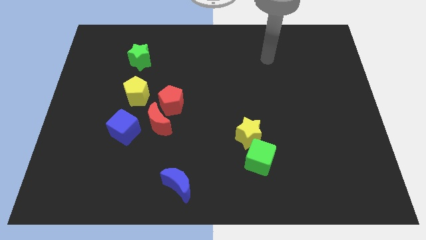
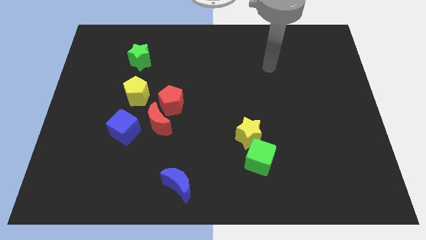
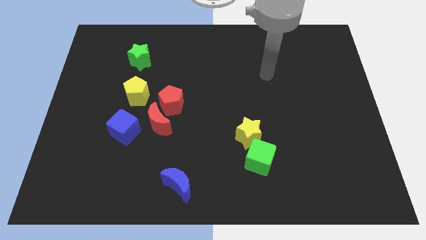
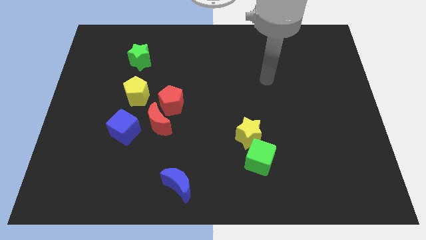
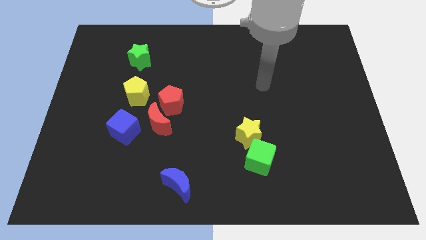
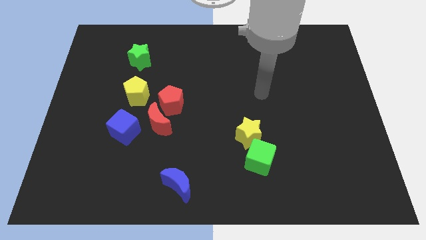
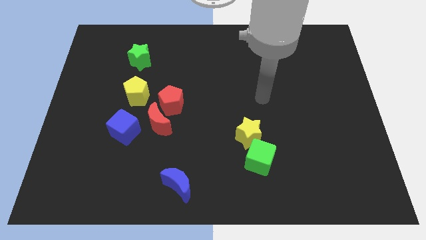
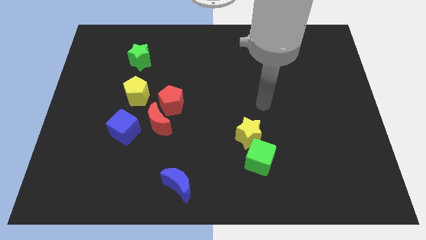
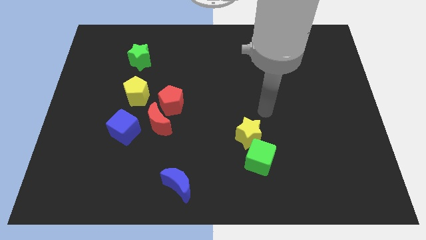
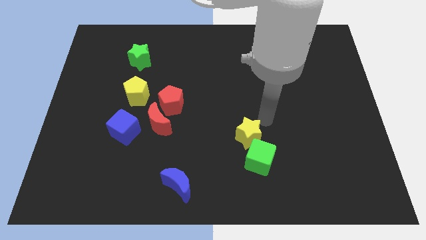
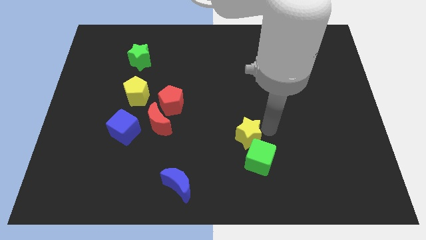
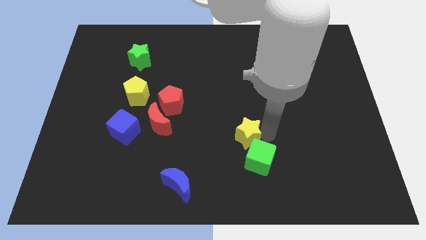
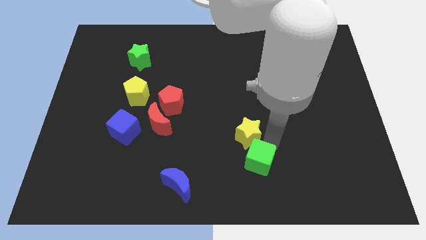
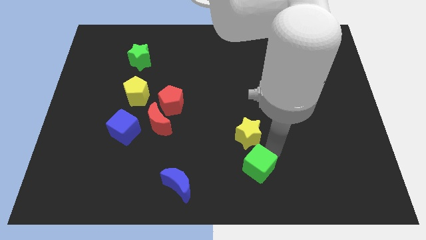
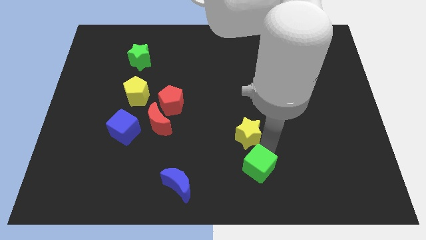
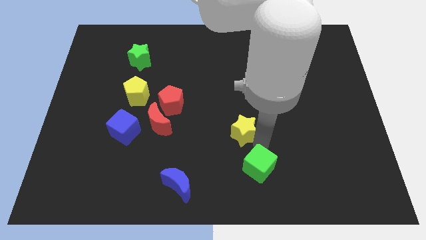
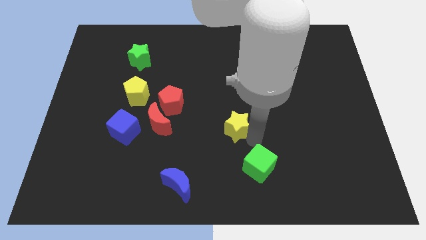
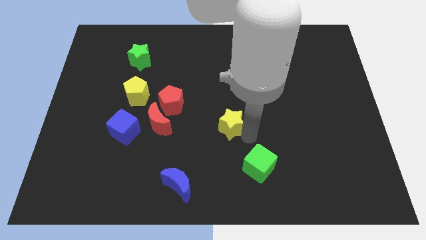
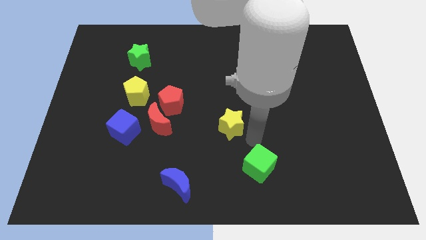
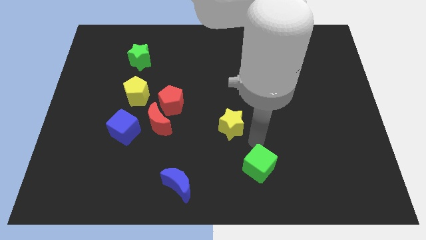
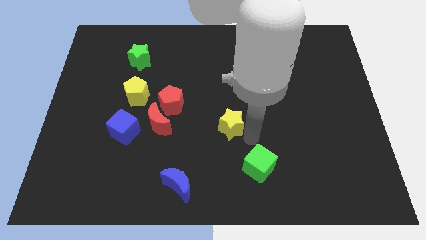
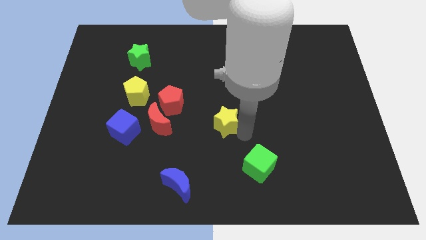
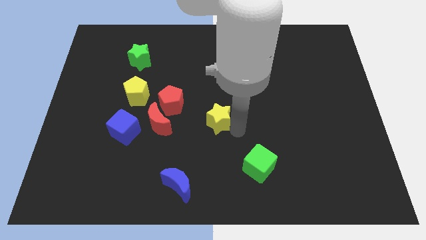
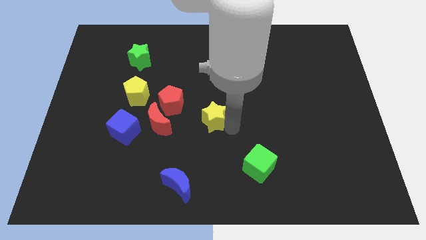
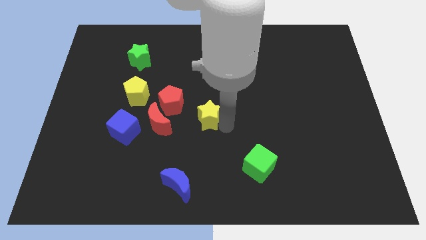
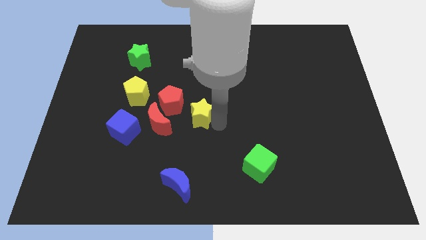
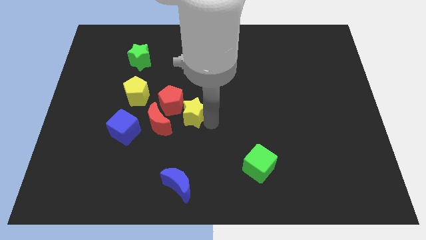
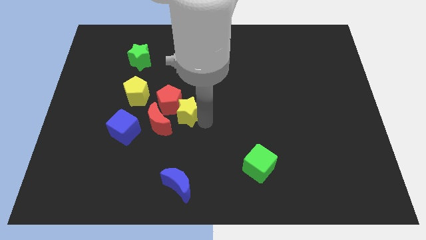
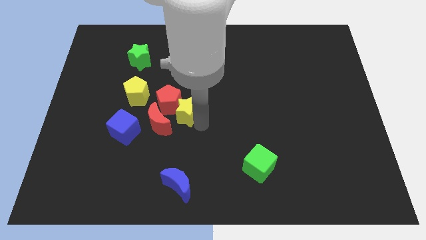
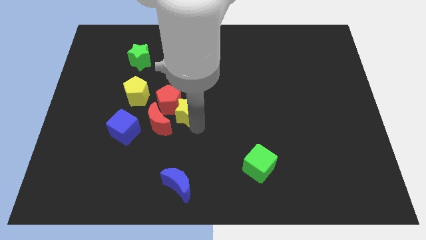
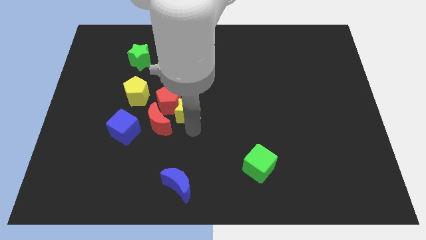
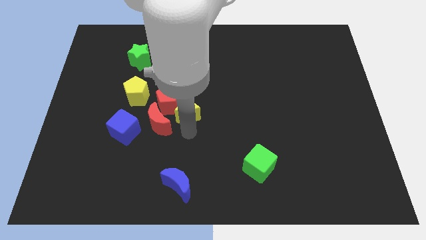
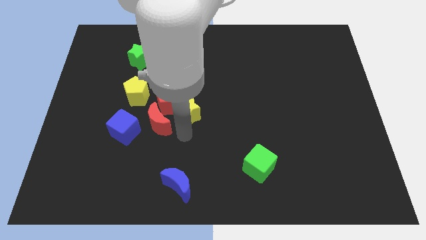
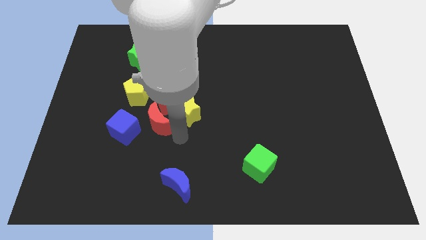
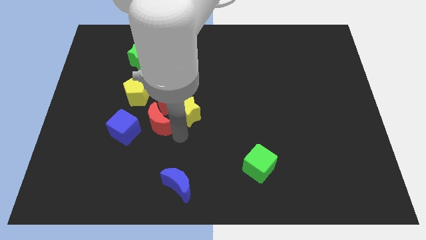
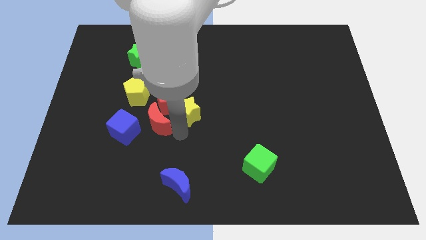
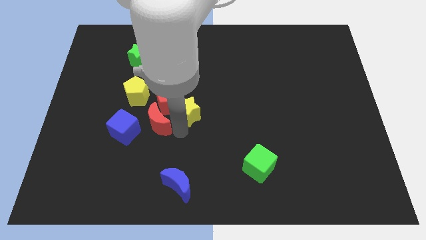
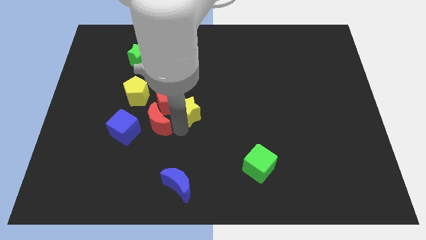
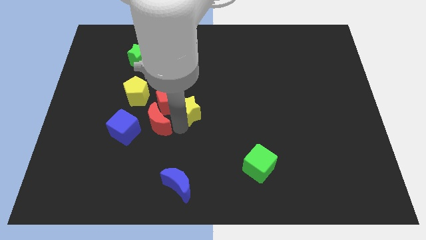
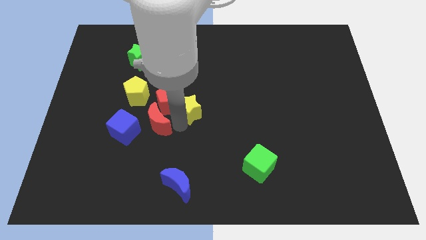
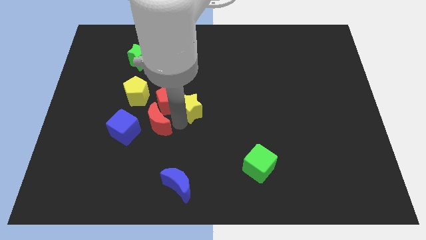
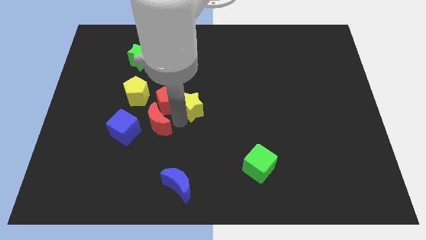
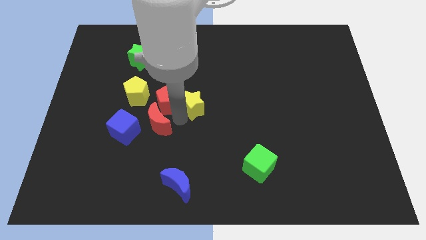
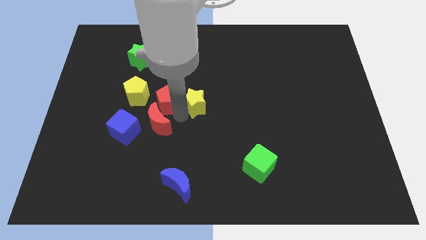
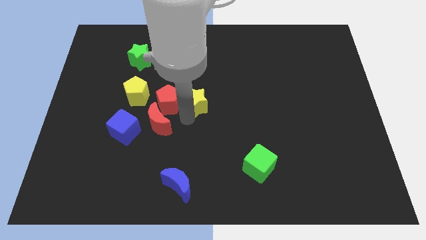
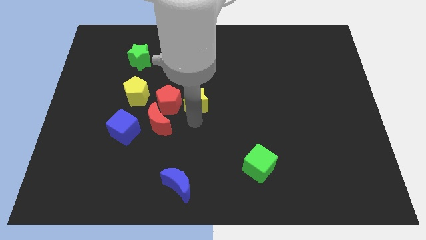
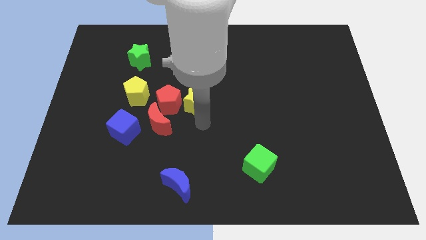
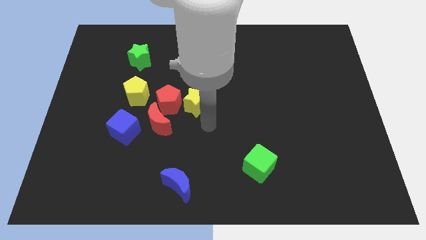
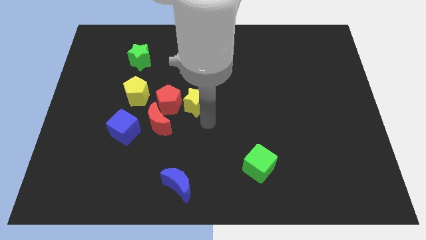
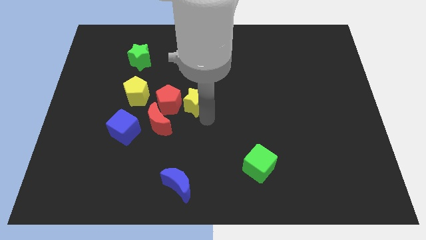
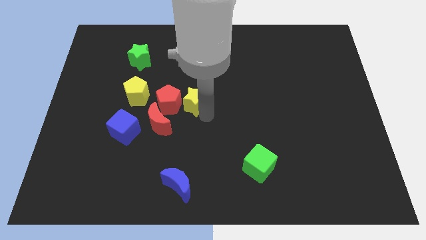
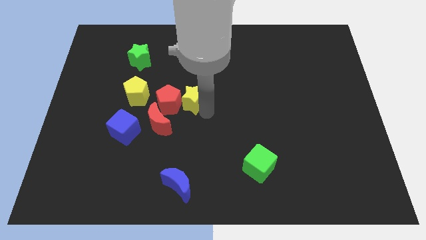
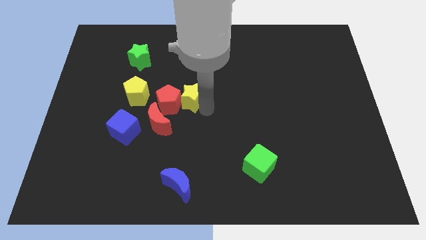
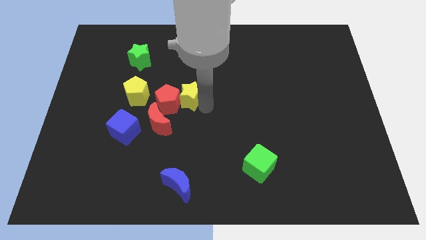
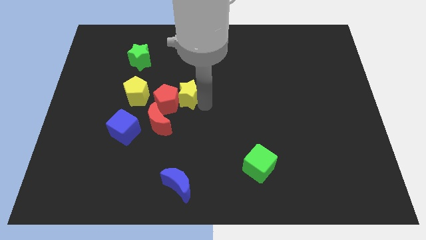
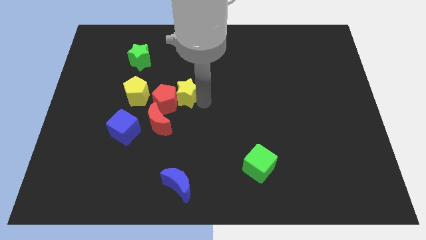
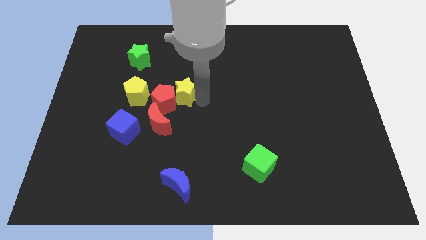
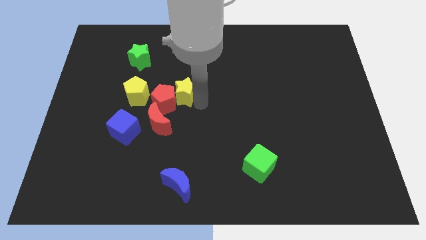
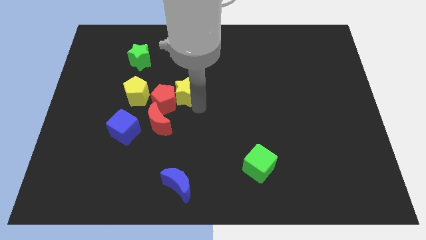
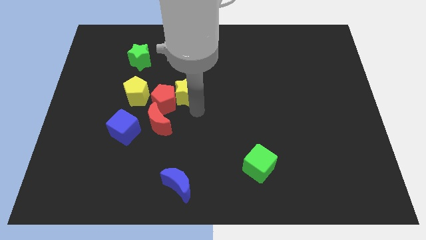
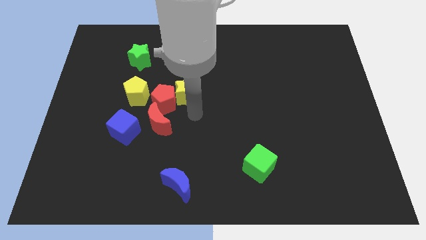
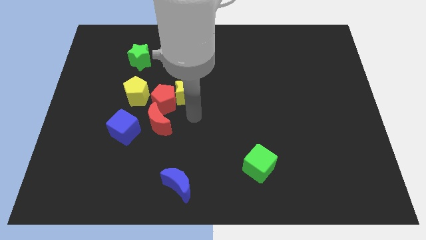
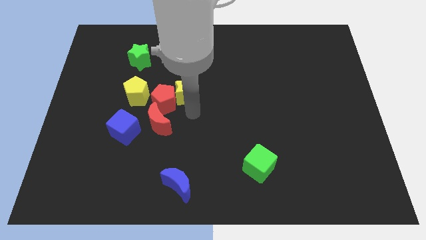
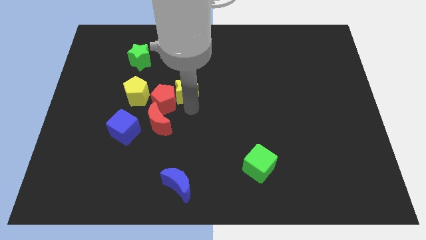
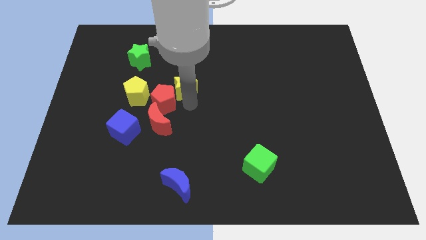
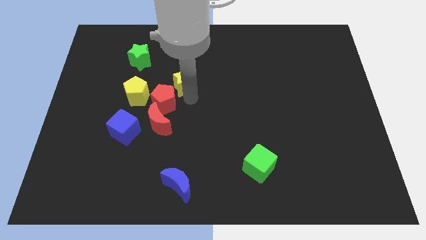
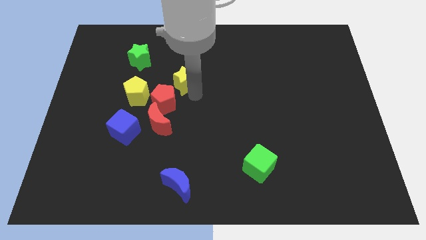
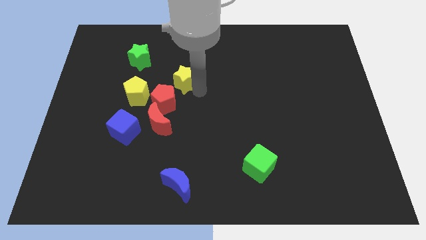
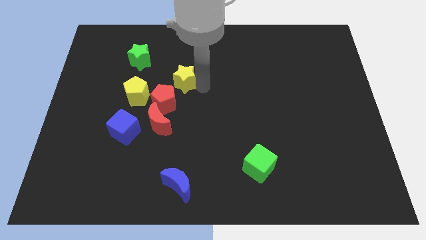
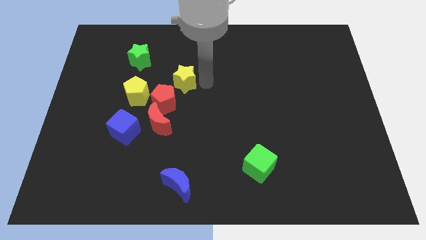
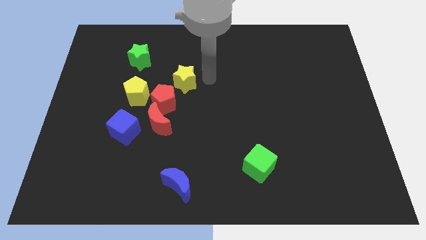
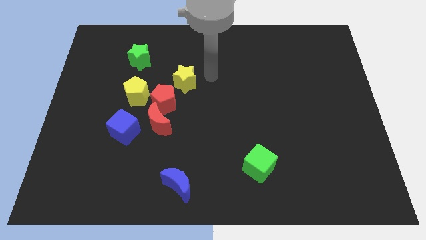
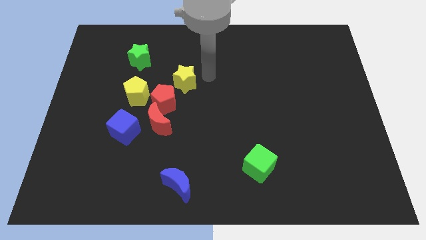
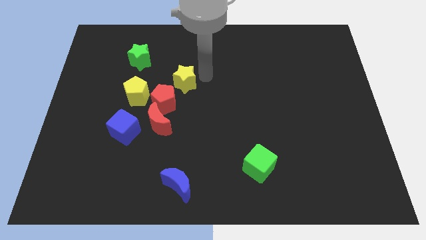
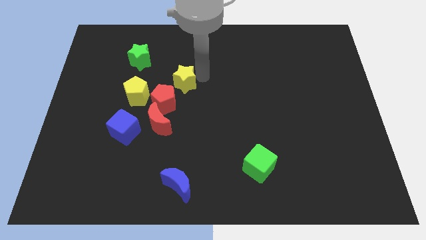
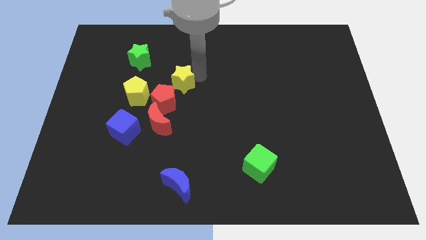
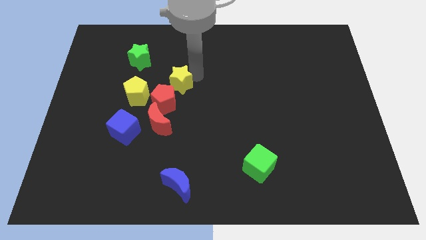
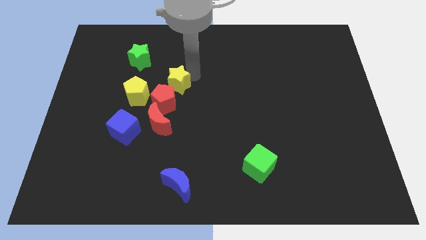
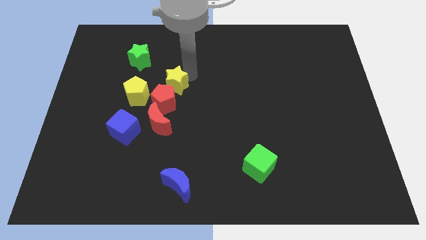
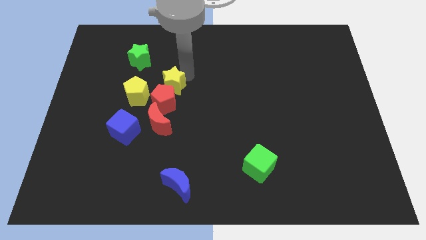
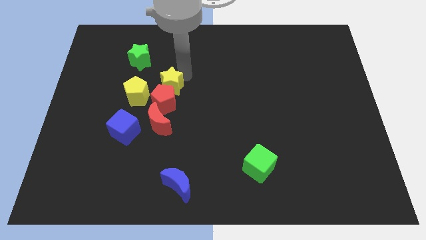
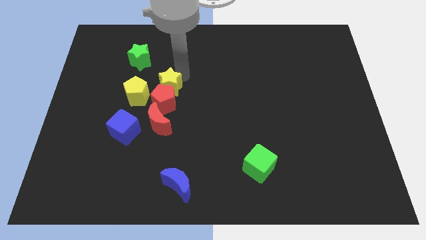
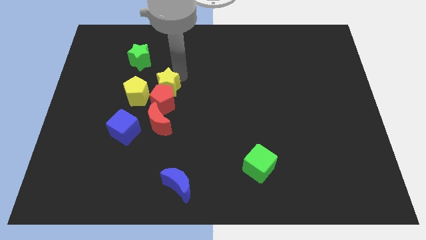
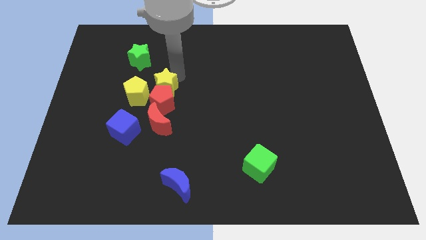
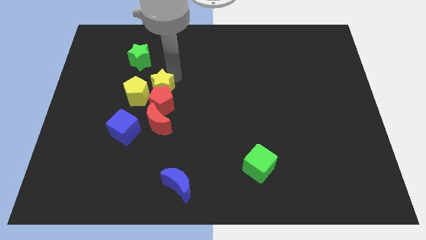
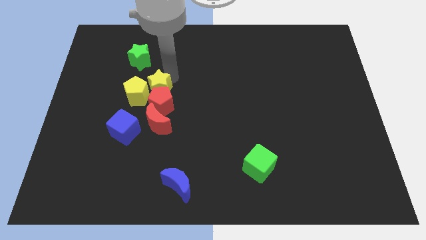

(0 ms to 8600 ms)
put the yellow star close to the yellow pentagon
